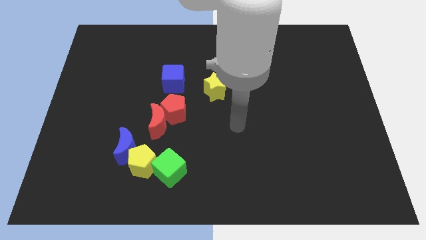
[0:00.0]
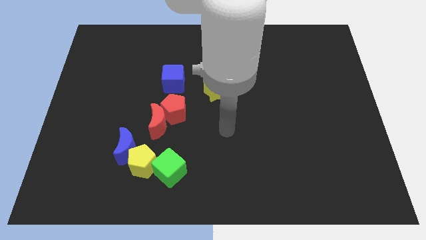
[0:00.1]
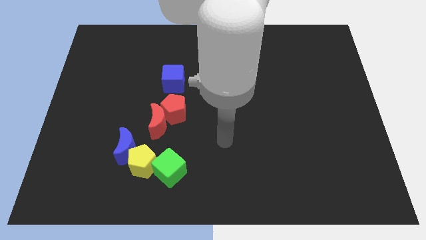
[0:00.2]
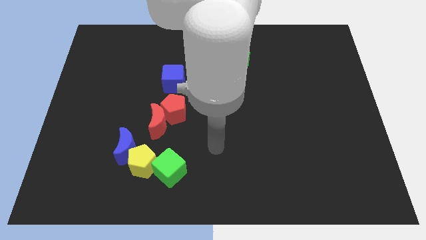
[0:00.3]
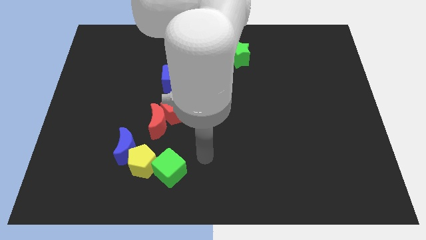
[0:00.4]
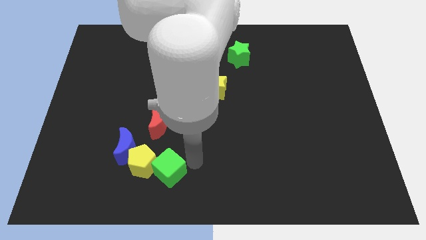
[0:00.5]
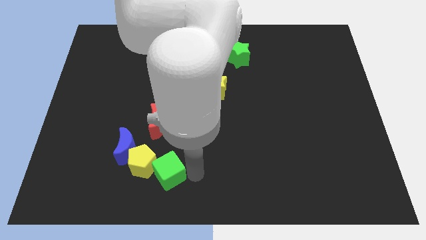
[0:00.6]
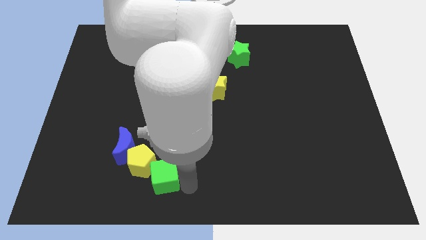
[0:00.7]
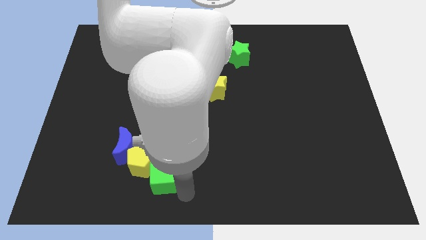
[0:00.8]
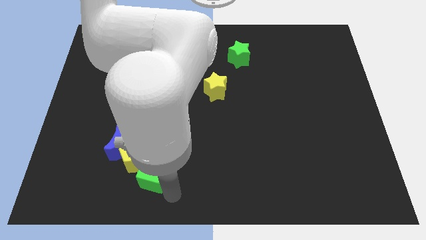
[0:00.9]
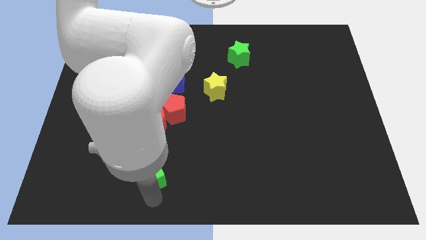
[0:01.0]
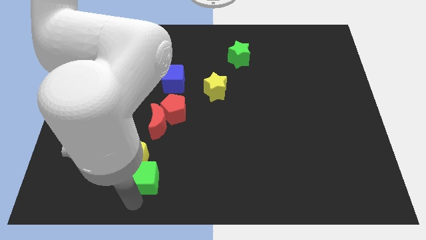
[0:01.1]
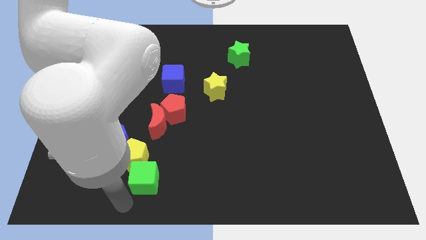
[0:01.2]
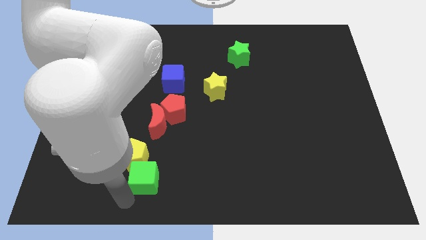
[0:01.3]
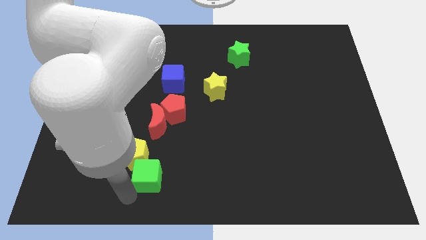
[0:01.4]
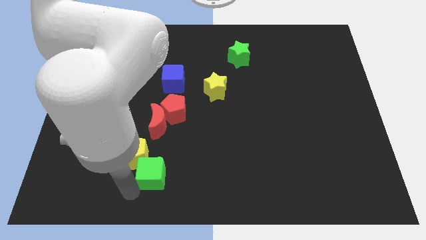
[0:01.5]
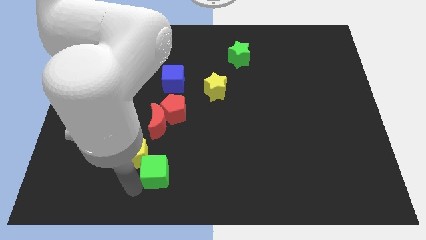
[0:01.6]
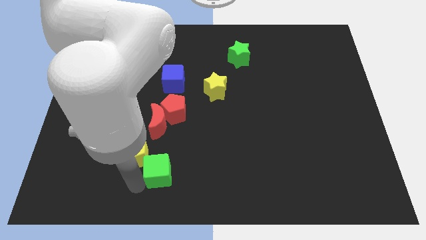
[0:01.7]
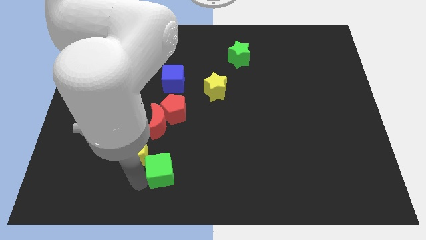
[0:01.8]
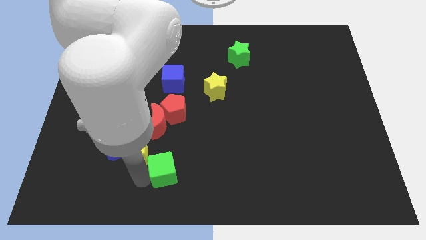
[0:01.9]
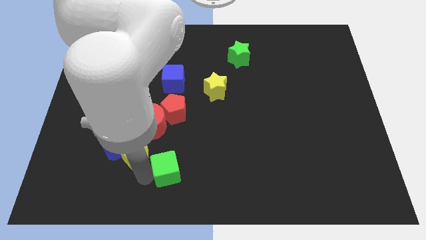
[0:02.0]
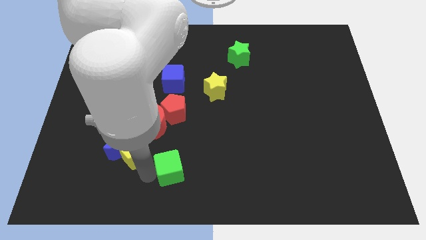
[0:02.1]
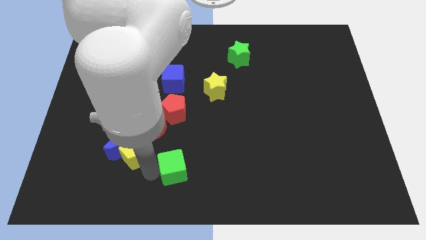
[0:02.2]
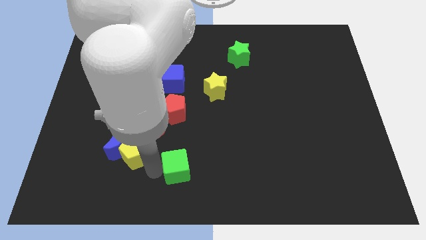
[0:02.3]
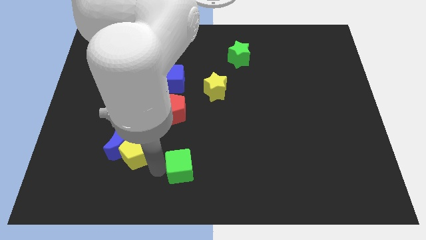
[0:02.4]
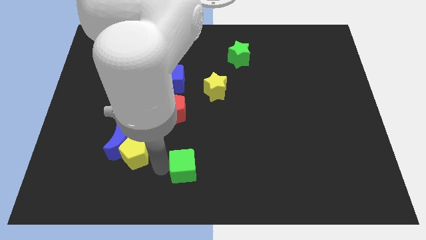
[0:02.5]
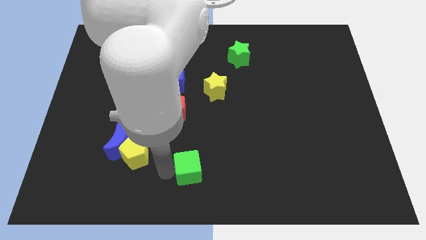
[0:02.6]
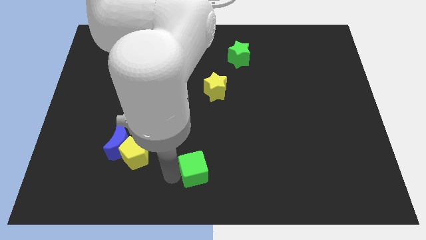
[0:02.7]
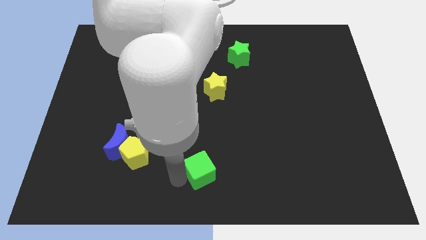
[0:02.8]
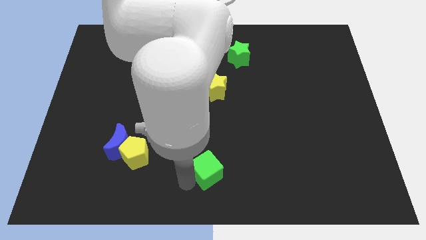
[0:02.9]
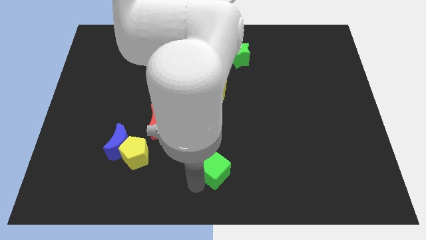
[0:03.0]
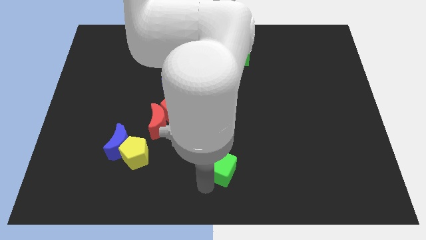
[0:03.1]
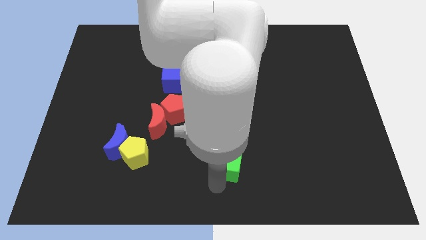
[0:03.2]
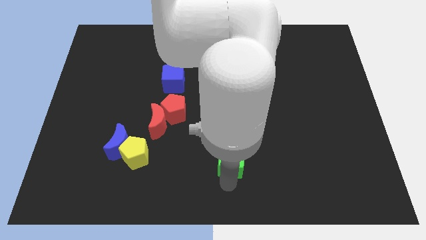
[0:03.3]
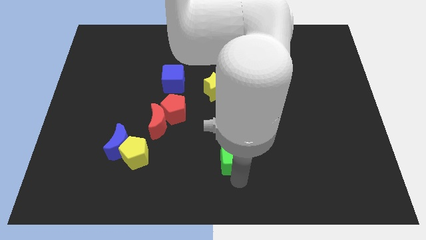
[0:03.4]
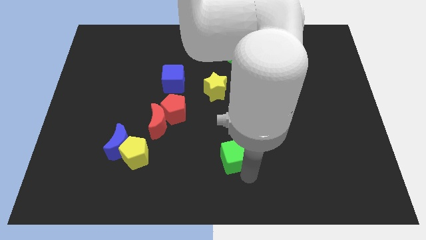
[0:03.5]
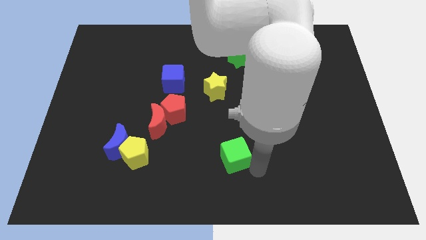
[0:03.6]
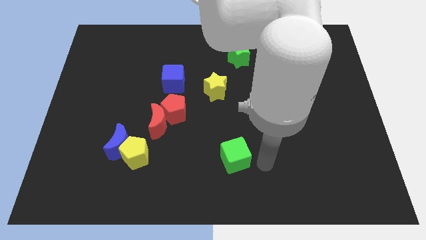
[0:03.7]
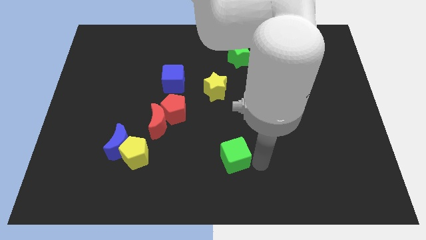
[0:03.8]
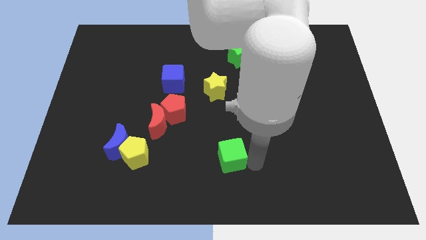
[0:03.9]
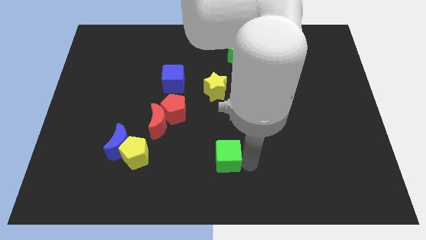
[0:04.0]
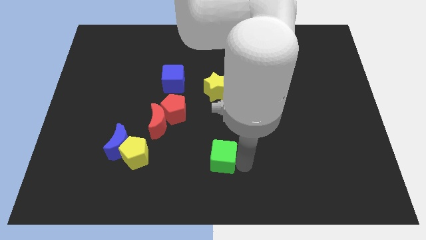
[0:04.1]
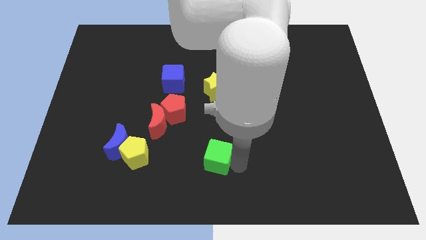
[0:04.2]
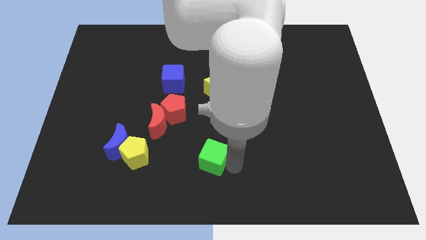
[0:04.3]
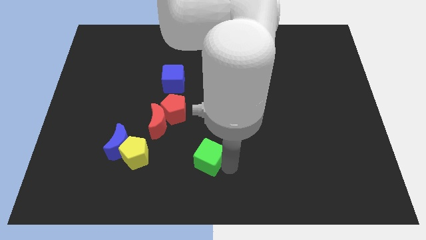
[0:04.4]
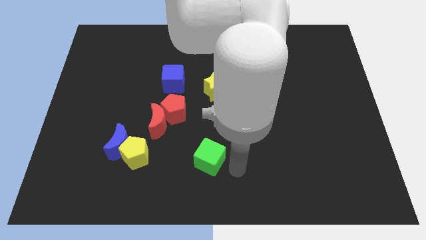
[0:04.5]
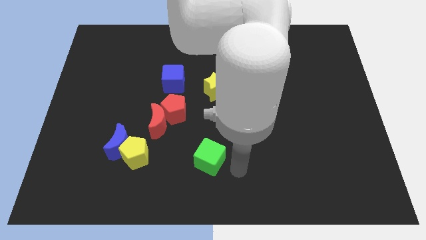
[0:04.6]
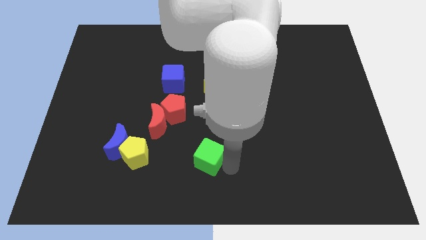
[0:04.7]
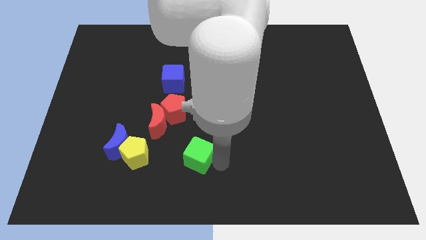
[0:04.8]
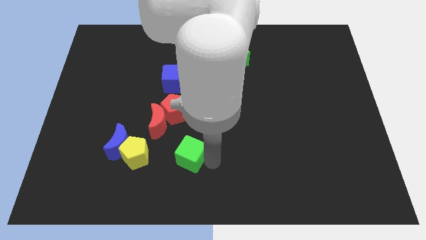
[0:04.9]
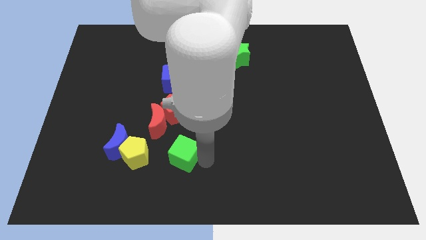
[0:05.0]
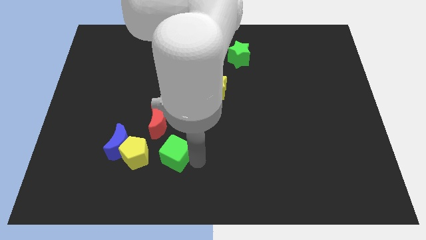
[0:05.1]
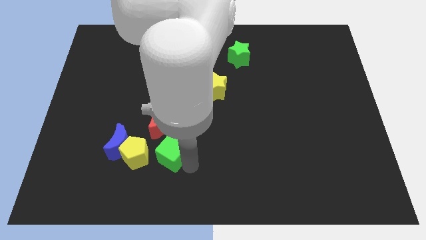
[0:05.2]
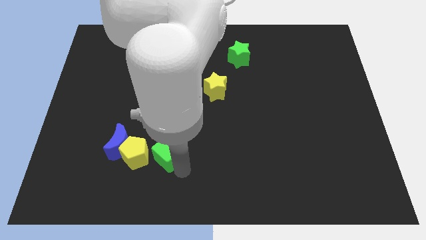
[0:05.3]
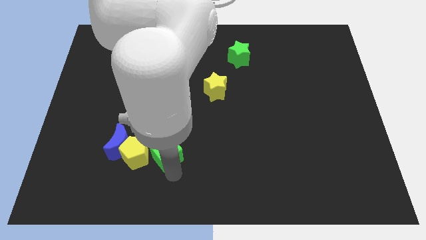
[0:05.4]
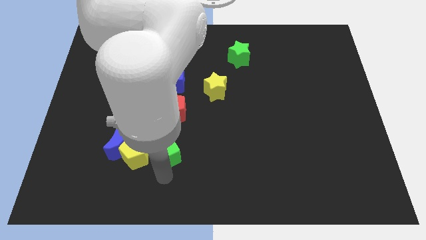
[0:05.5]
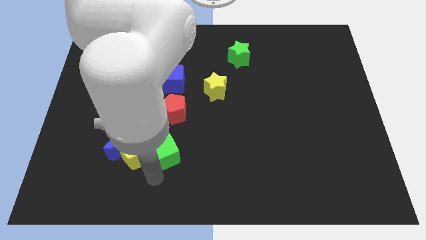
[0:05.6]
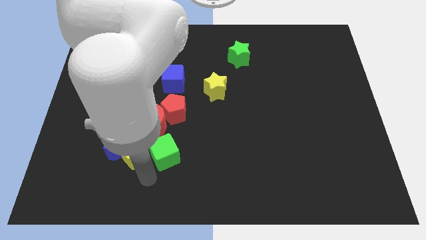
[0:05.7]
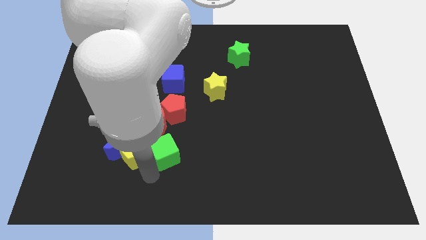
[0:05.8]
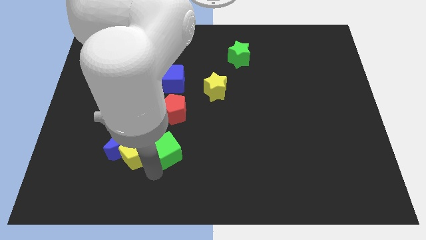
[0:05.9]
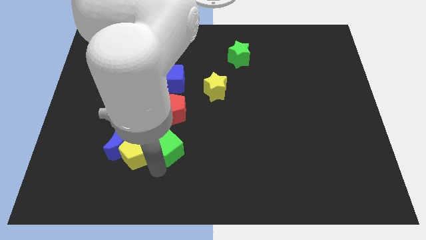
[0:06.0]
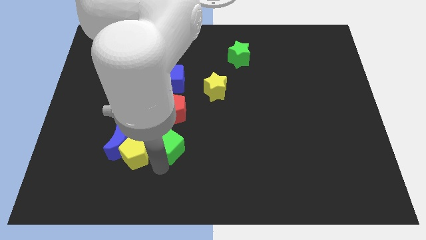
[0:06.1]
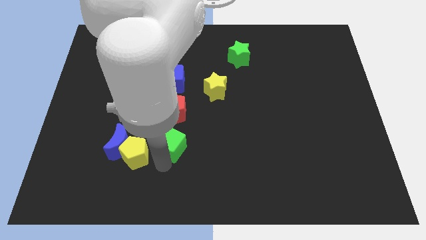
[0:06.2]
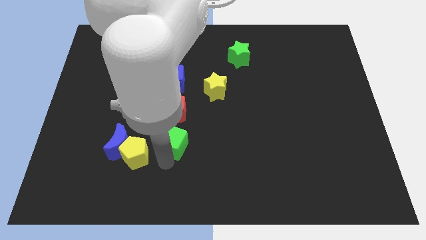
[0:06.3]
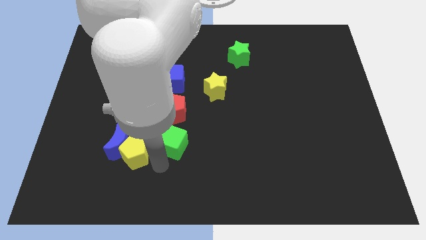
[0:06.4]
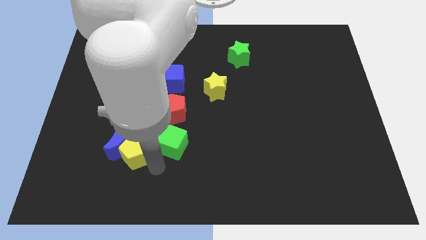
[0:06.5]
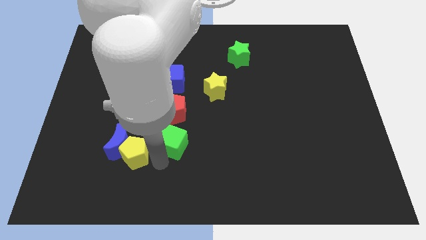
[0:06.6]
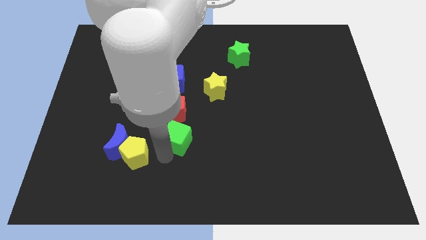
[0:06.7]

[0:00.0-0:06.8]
move the green cube up a bit

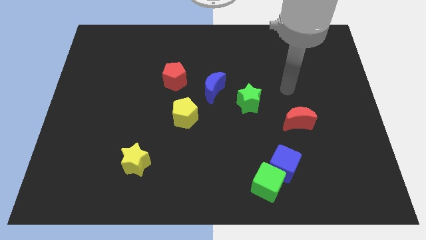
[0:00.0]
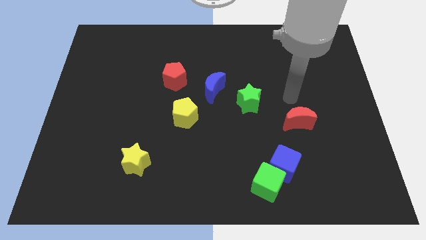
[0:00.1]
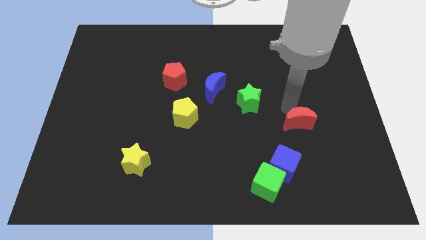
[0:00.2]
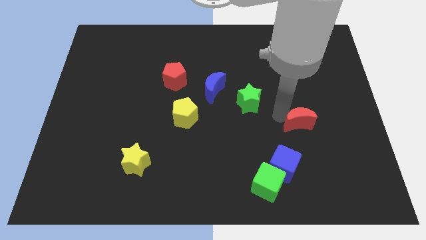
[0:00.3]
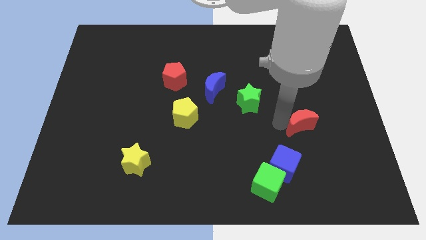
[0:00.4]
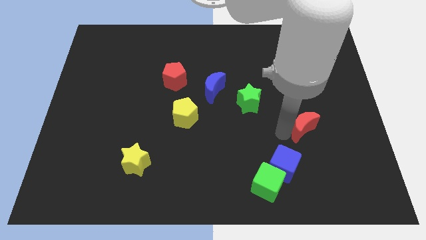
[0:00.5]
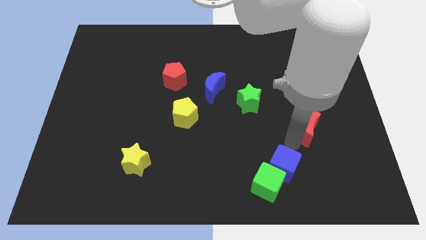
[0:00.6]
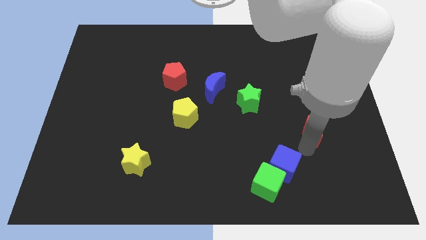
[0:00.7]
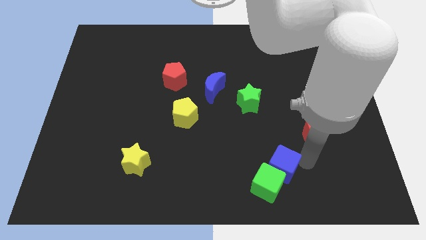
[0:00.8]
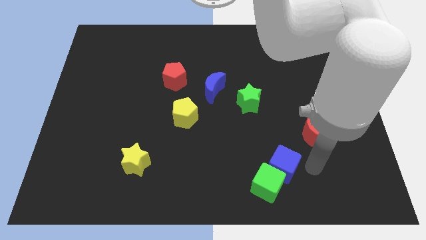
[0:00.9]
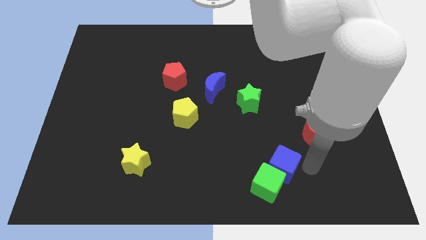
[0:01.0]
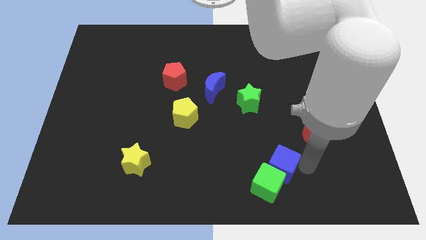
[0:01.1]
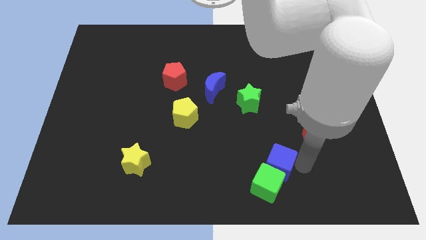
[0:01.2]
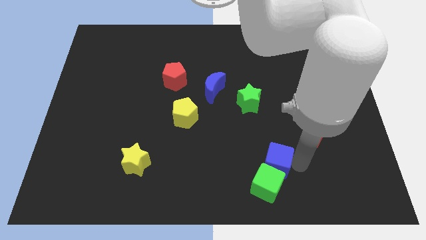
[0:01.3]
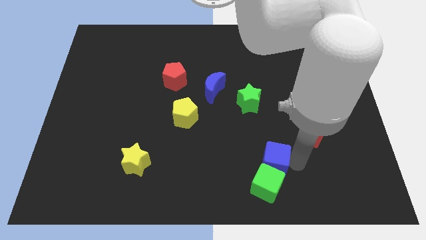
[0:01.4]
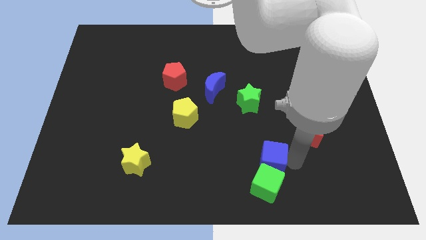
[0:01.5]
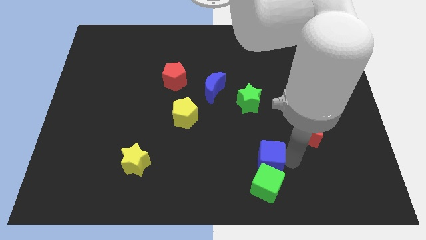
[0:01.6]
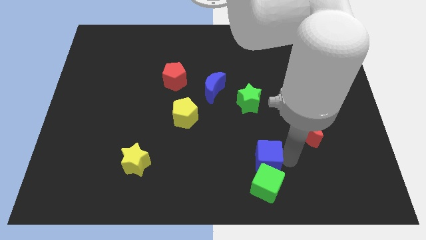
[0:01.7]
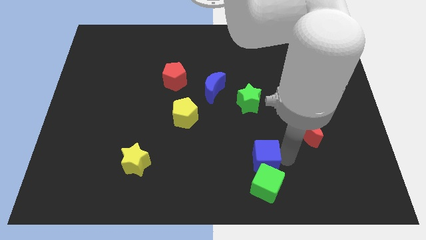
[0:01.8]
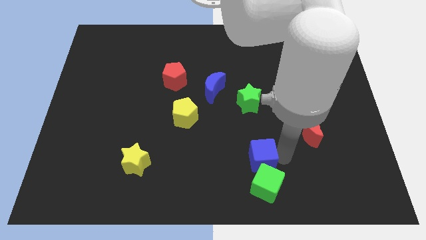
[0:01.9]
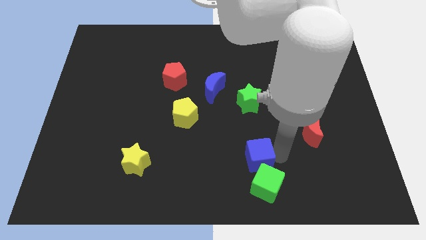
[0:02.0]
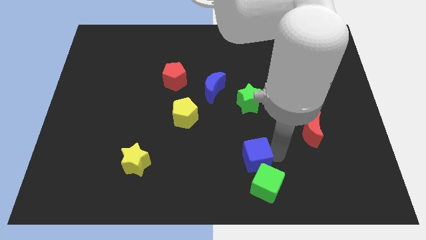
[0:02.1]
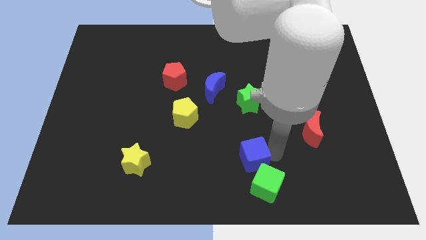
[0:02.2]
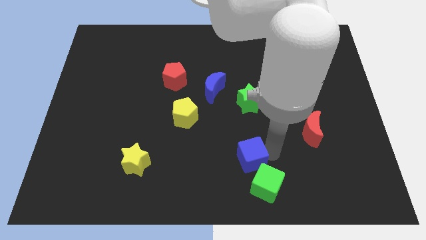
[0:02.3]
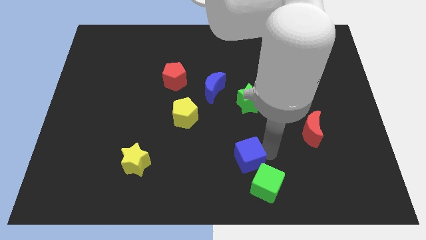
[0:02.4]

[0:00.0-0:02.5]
move the blue cube slightly left
